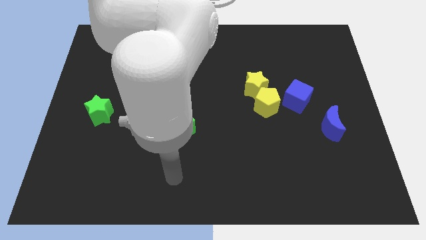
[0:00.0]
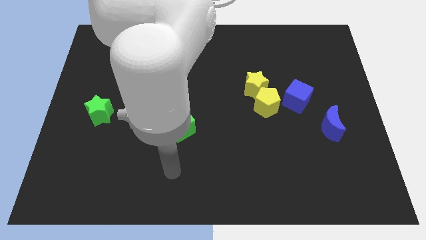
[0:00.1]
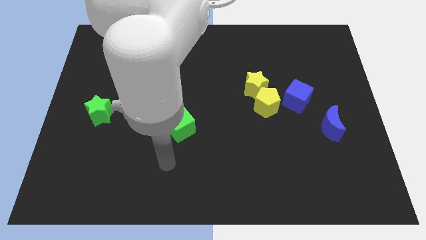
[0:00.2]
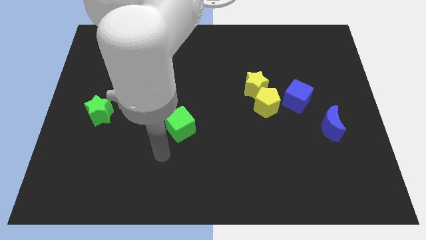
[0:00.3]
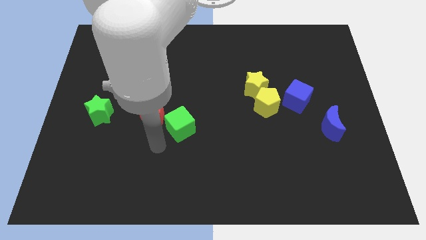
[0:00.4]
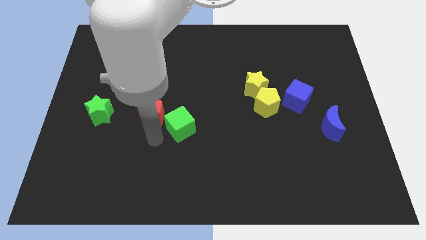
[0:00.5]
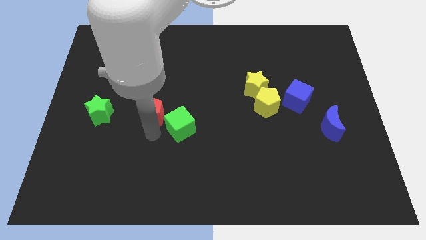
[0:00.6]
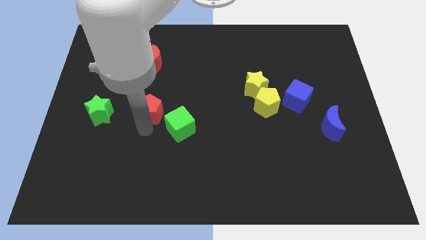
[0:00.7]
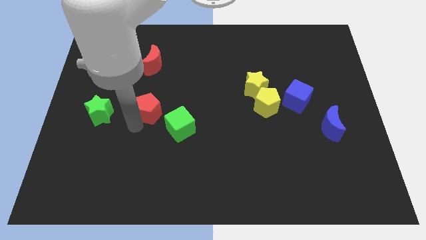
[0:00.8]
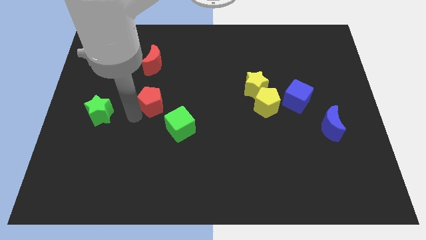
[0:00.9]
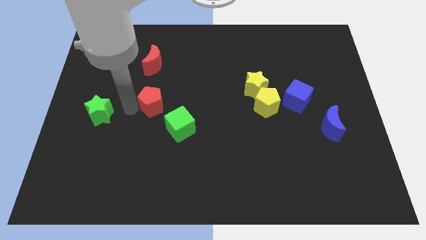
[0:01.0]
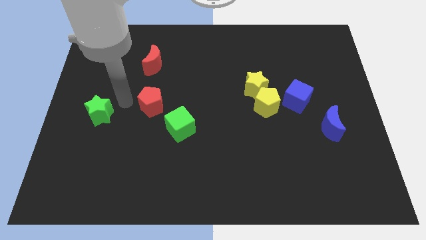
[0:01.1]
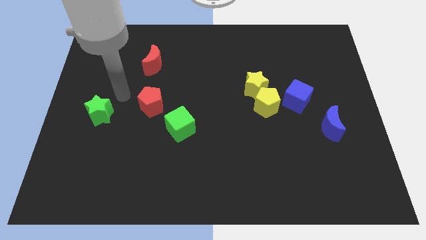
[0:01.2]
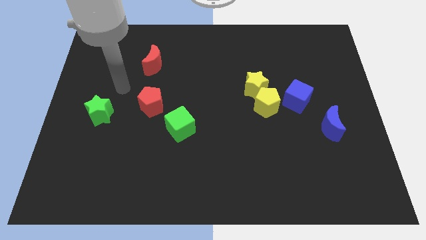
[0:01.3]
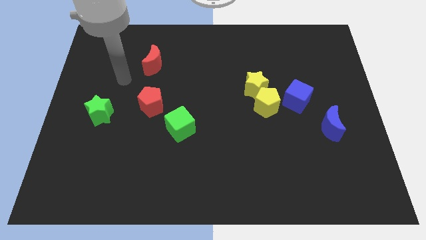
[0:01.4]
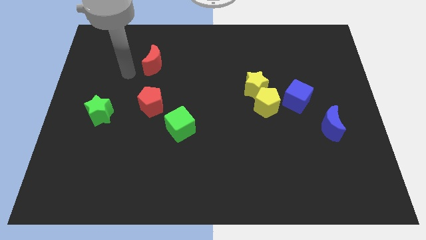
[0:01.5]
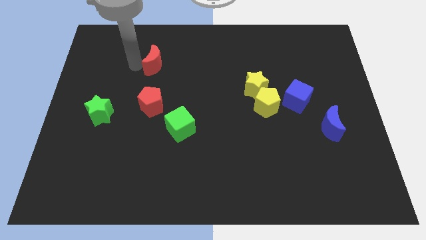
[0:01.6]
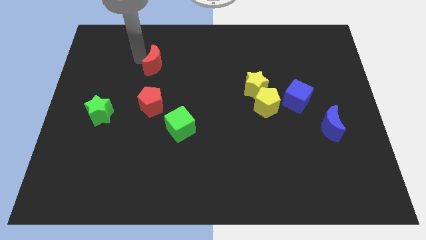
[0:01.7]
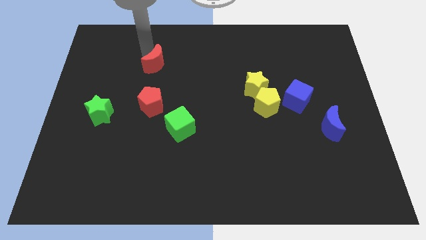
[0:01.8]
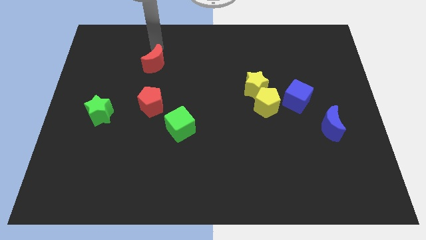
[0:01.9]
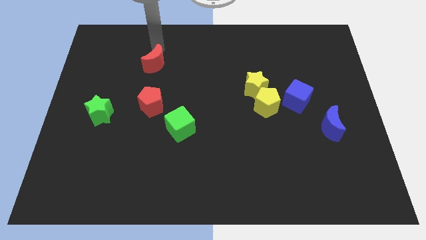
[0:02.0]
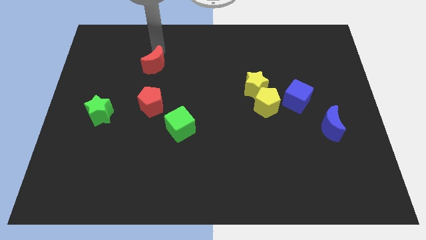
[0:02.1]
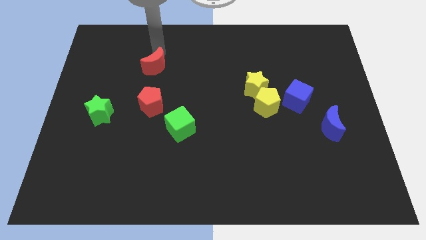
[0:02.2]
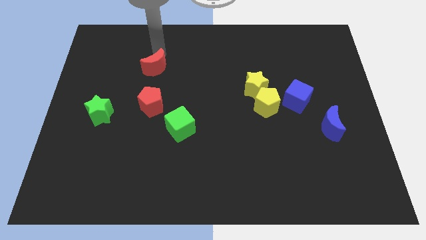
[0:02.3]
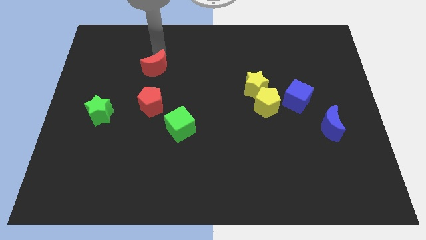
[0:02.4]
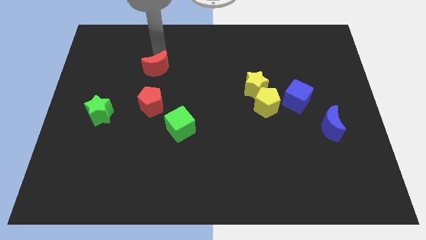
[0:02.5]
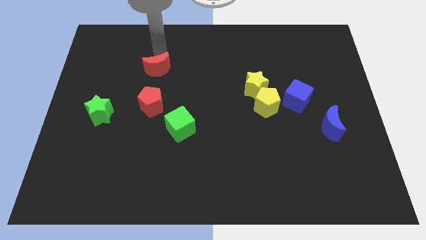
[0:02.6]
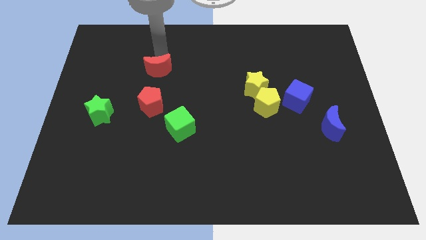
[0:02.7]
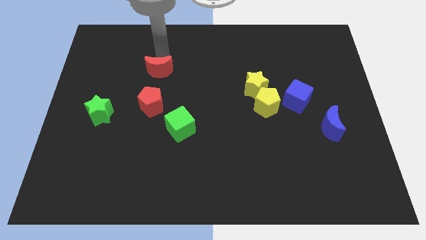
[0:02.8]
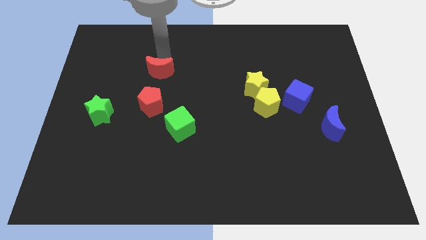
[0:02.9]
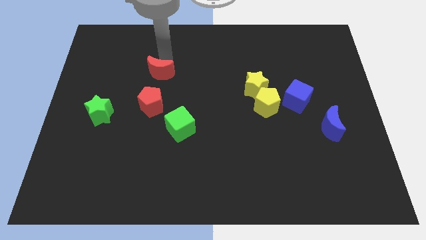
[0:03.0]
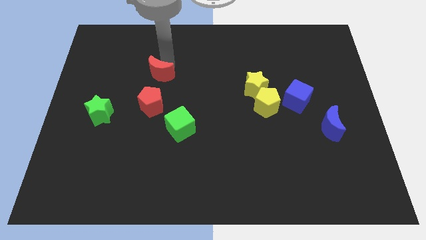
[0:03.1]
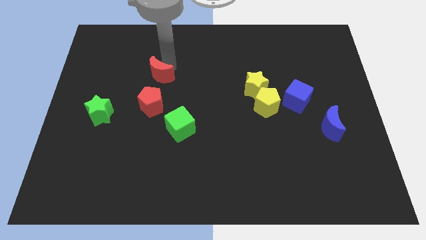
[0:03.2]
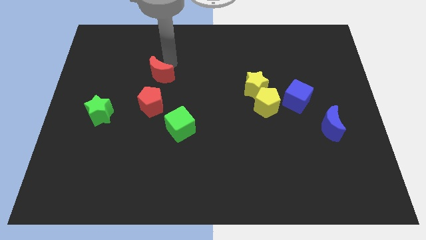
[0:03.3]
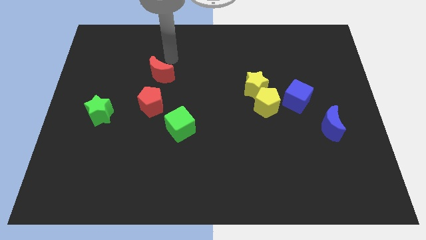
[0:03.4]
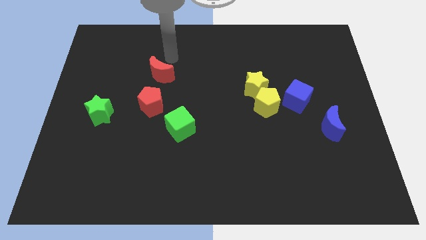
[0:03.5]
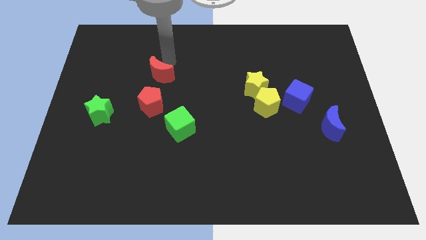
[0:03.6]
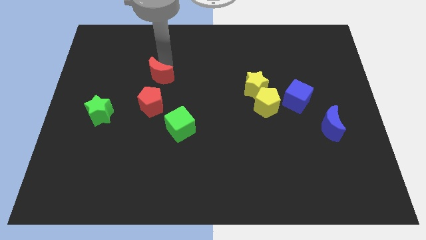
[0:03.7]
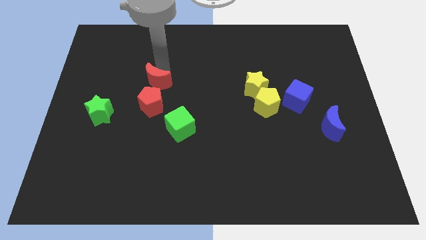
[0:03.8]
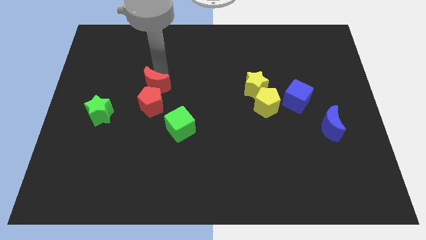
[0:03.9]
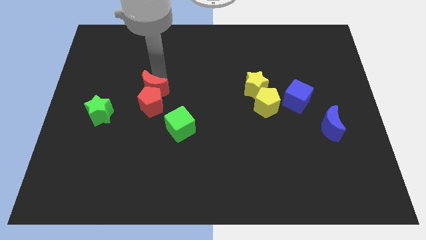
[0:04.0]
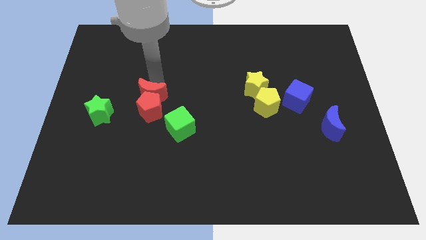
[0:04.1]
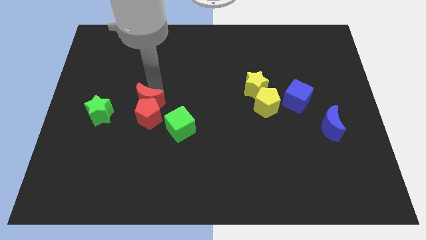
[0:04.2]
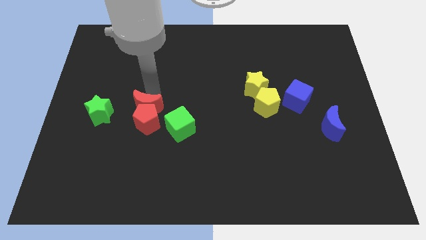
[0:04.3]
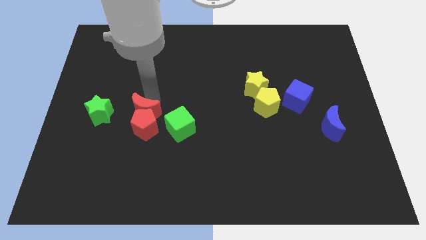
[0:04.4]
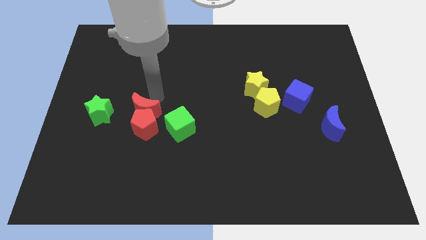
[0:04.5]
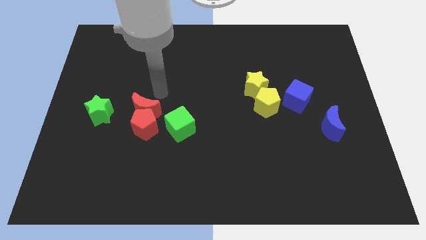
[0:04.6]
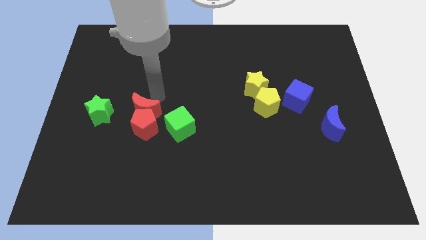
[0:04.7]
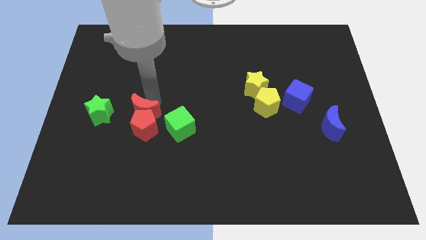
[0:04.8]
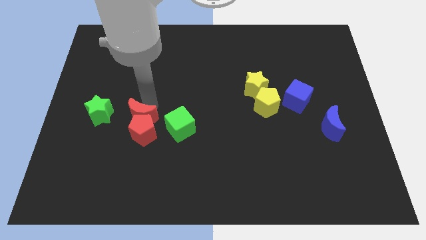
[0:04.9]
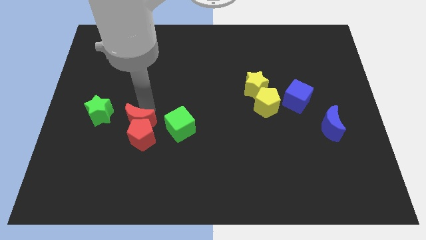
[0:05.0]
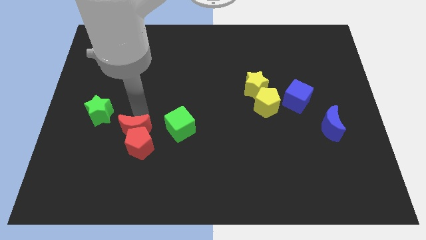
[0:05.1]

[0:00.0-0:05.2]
slide the red moon down

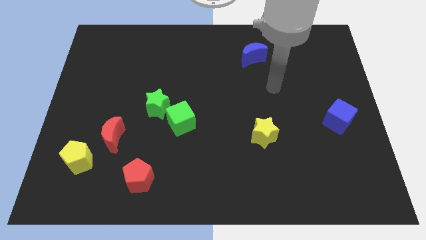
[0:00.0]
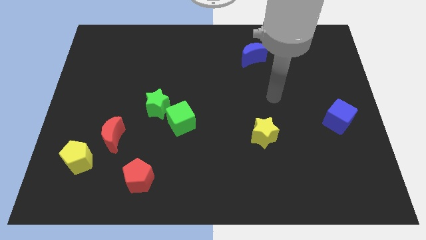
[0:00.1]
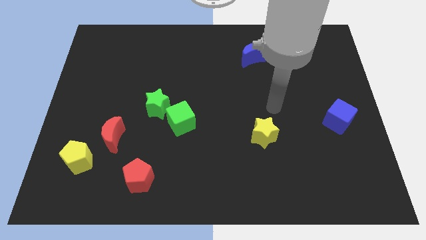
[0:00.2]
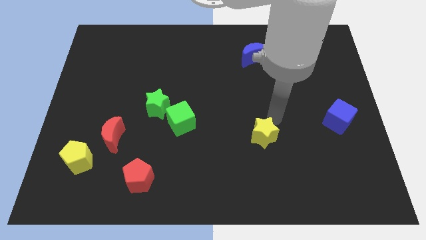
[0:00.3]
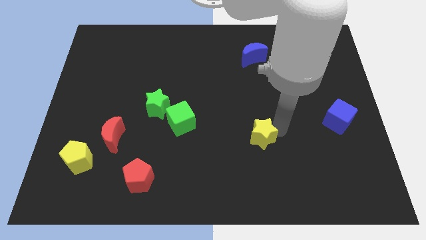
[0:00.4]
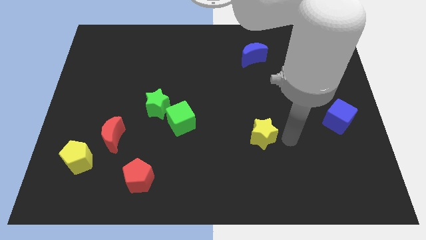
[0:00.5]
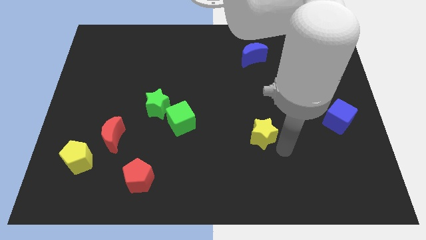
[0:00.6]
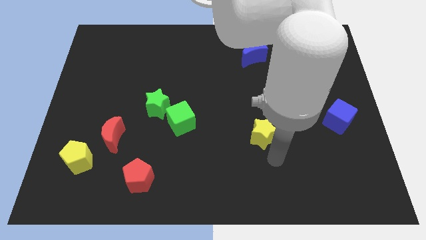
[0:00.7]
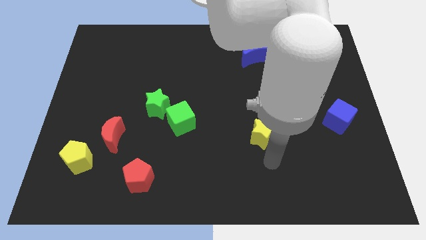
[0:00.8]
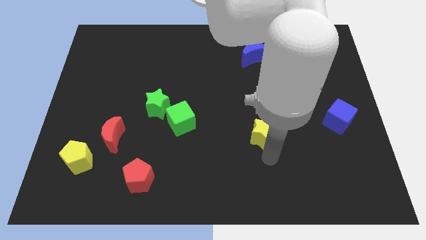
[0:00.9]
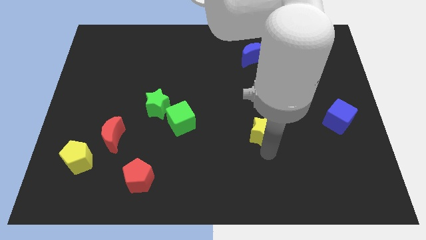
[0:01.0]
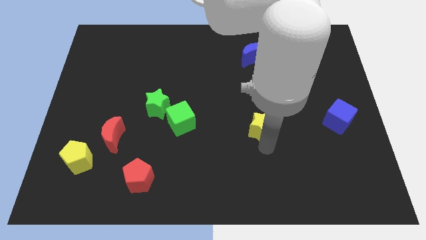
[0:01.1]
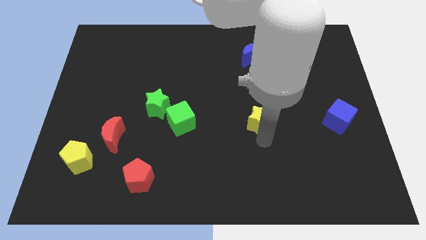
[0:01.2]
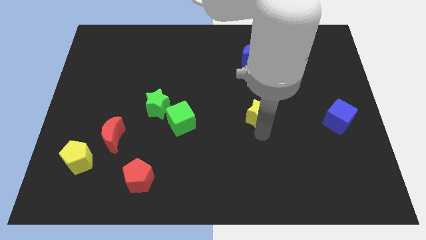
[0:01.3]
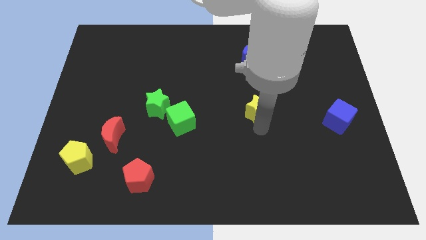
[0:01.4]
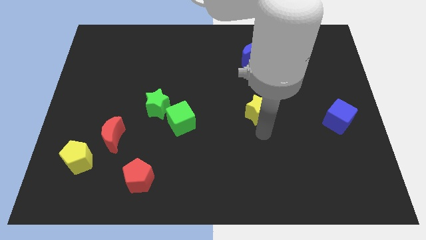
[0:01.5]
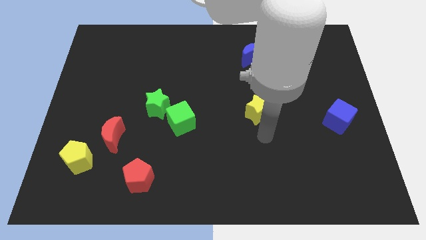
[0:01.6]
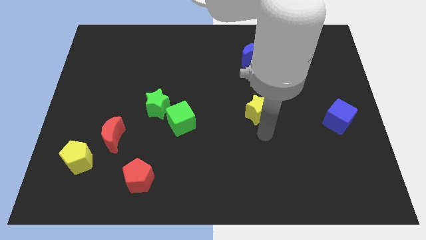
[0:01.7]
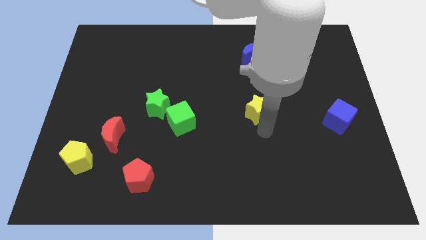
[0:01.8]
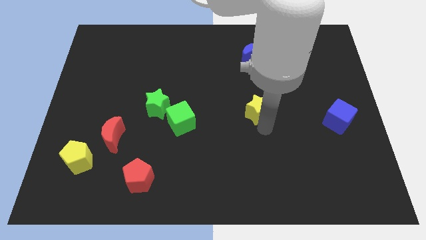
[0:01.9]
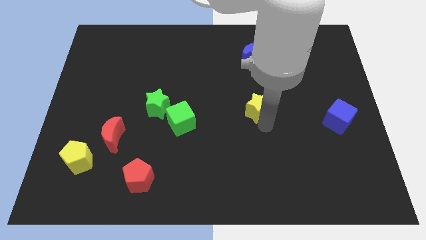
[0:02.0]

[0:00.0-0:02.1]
slide the yellow star a little upwards

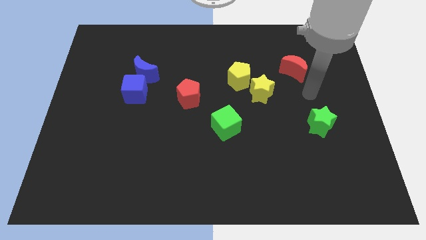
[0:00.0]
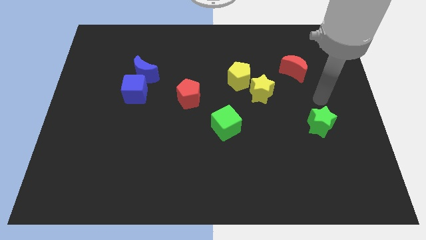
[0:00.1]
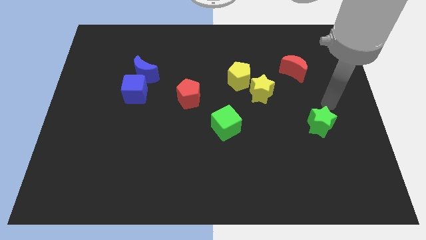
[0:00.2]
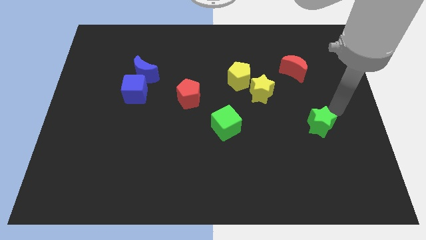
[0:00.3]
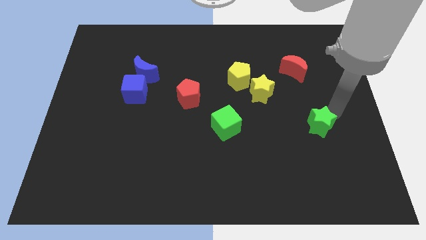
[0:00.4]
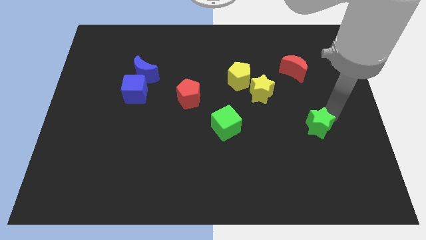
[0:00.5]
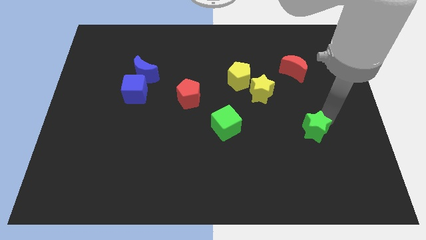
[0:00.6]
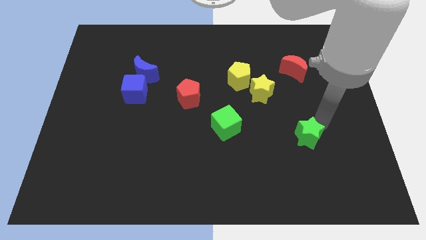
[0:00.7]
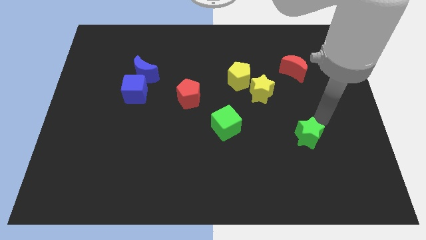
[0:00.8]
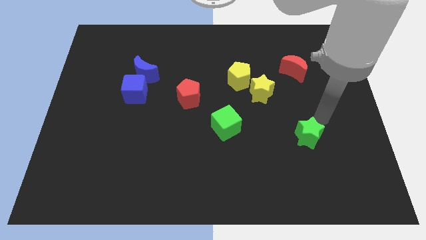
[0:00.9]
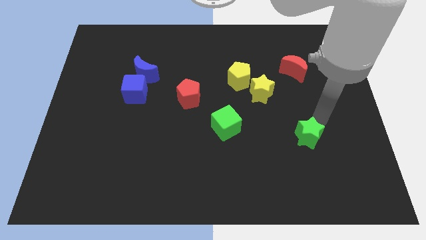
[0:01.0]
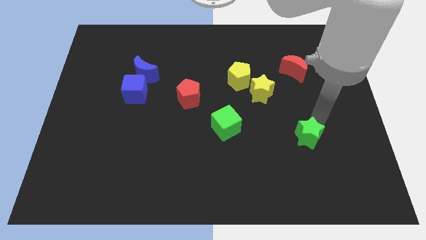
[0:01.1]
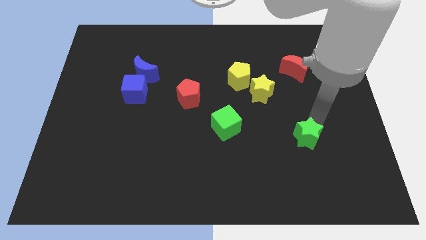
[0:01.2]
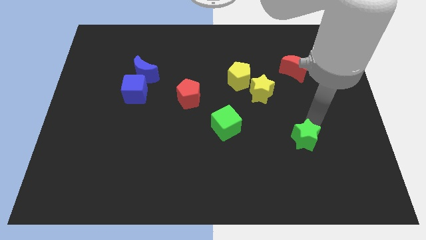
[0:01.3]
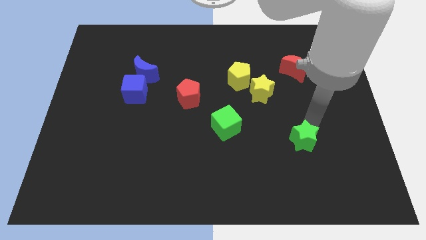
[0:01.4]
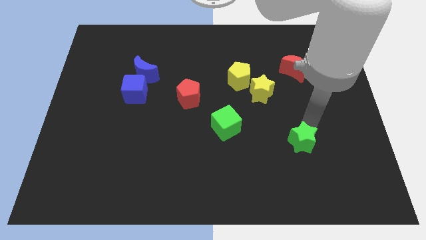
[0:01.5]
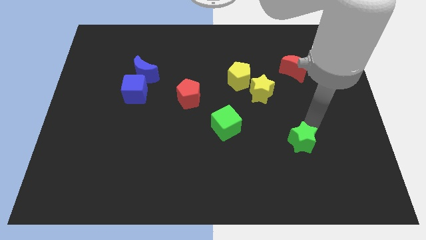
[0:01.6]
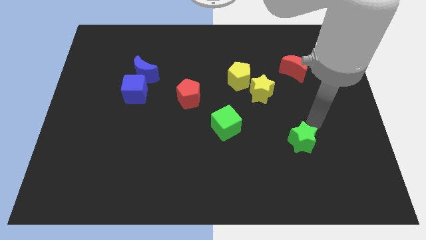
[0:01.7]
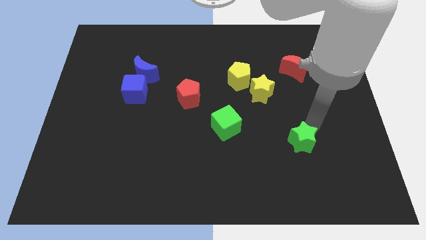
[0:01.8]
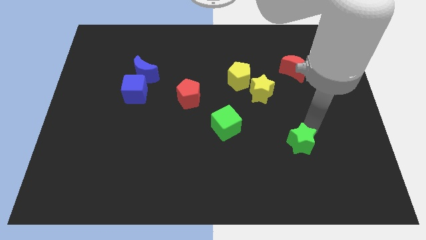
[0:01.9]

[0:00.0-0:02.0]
move the green star a little diagonally down and to the left
